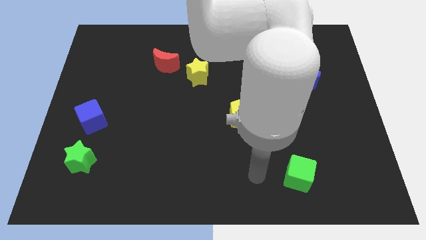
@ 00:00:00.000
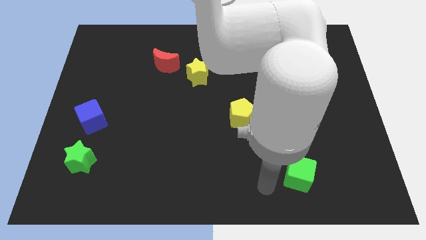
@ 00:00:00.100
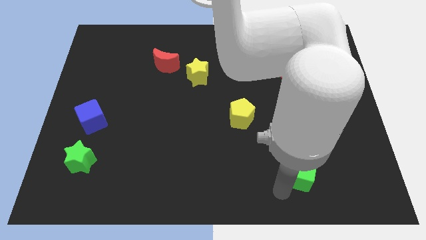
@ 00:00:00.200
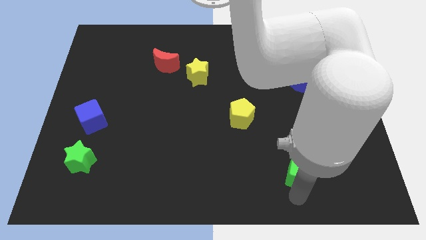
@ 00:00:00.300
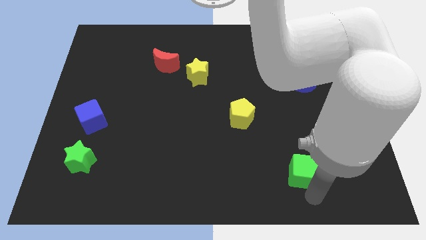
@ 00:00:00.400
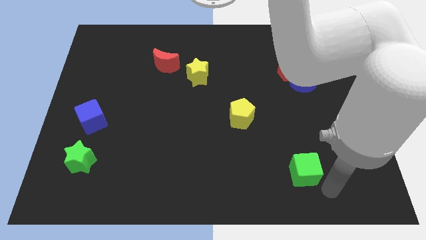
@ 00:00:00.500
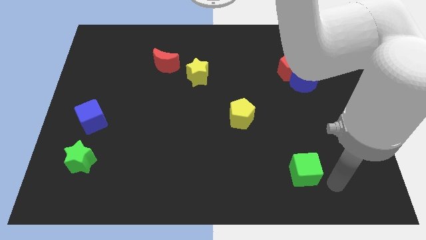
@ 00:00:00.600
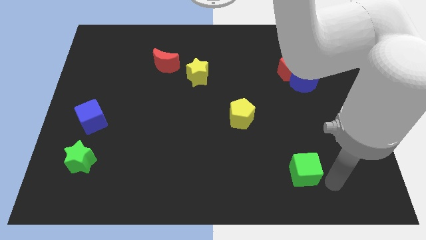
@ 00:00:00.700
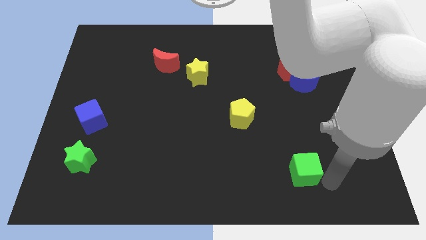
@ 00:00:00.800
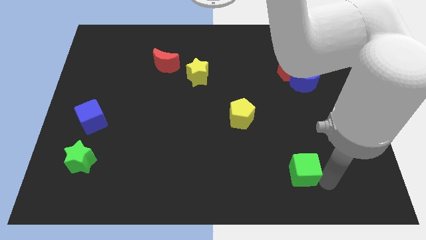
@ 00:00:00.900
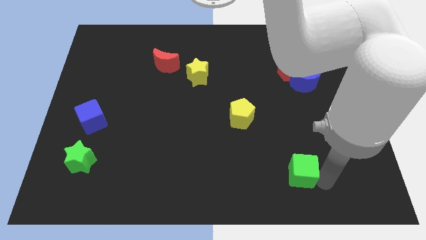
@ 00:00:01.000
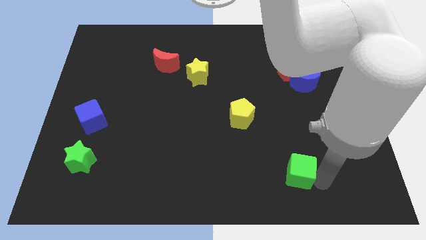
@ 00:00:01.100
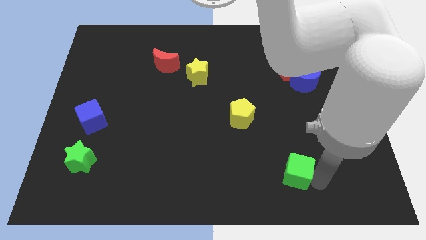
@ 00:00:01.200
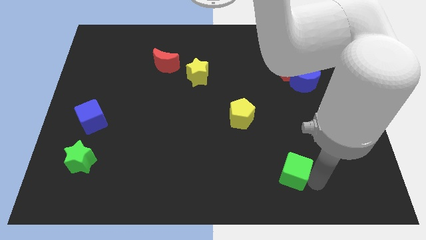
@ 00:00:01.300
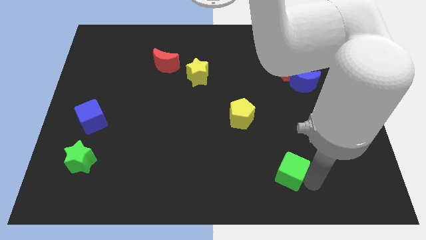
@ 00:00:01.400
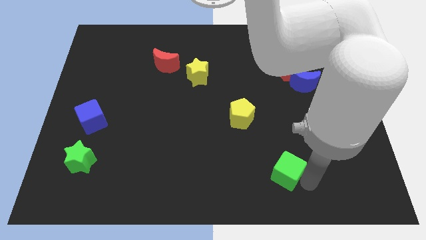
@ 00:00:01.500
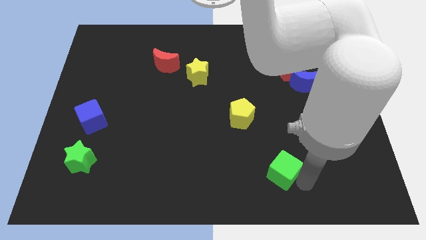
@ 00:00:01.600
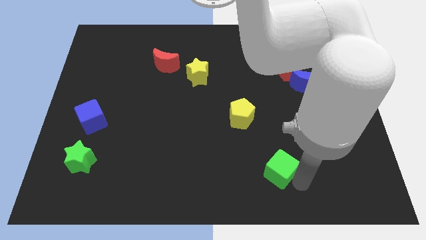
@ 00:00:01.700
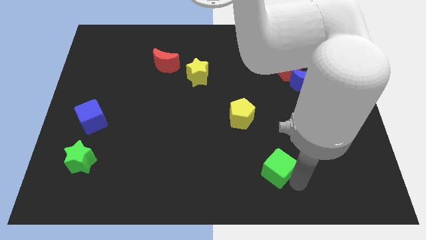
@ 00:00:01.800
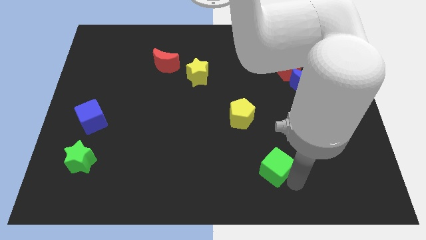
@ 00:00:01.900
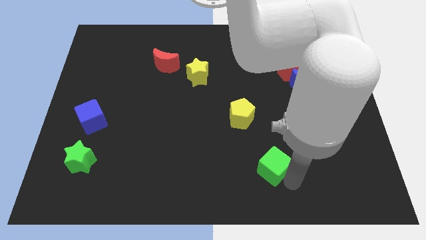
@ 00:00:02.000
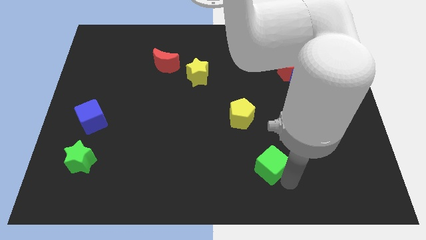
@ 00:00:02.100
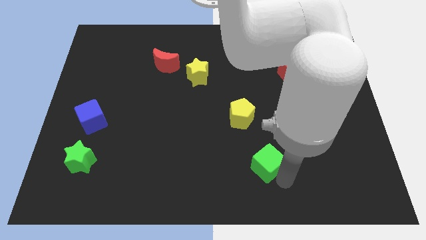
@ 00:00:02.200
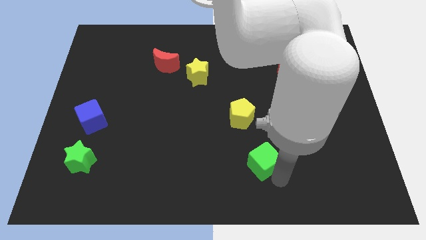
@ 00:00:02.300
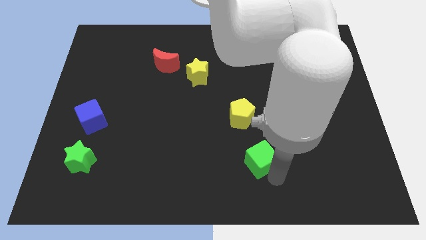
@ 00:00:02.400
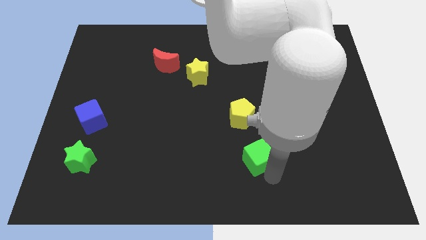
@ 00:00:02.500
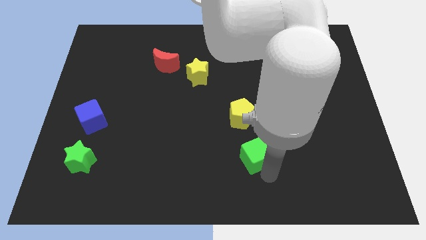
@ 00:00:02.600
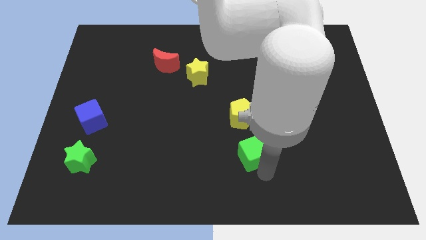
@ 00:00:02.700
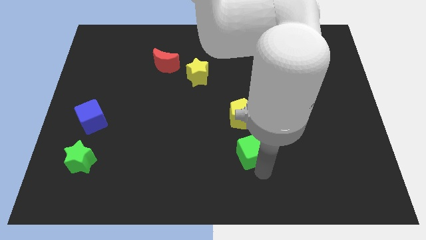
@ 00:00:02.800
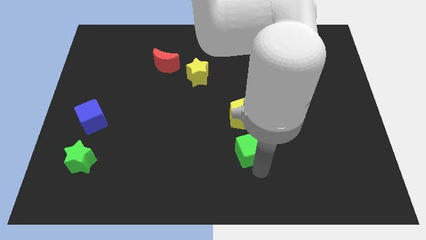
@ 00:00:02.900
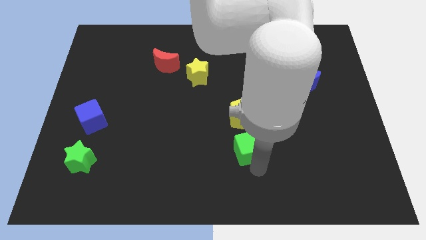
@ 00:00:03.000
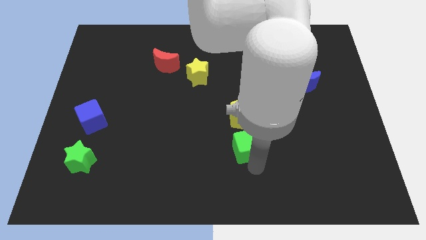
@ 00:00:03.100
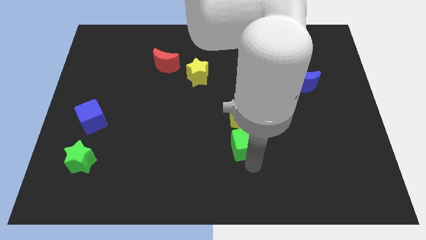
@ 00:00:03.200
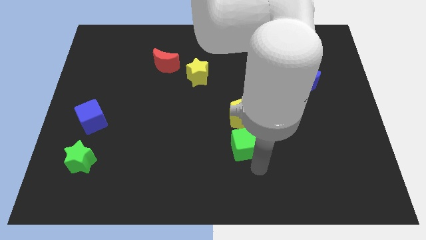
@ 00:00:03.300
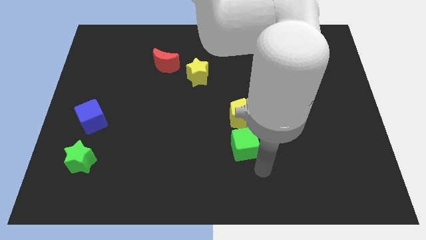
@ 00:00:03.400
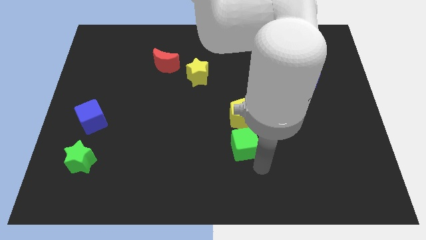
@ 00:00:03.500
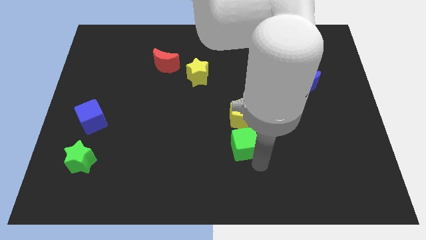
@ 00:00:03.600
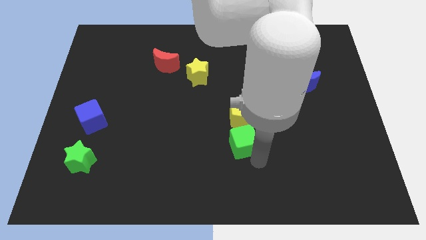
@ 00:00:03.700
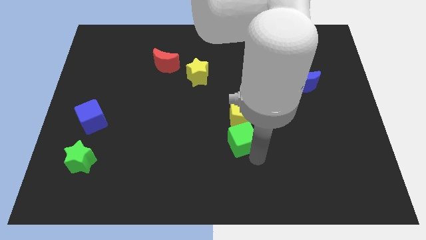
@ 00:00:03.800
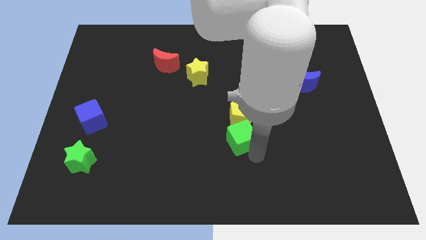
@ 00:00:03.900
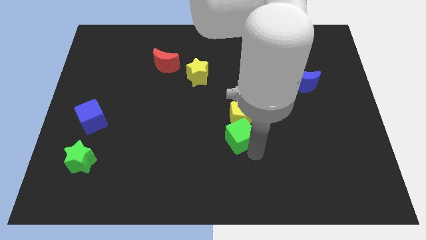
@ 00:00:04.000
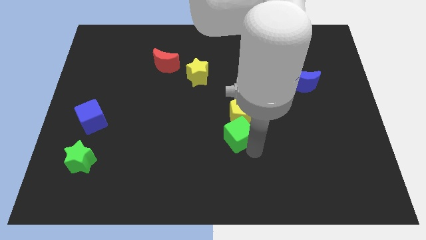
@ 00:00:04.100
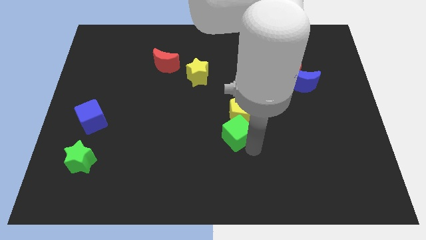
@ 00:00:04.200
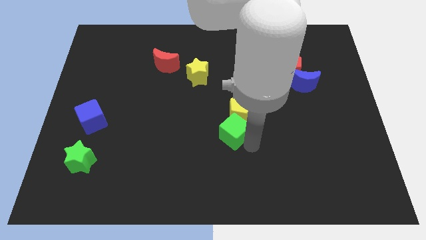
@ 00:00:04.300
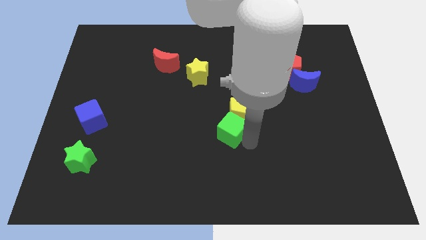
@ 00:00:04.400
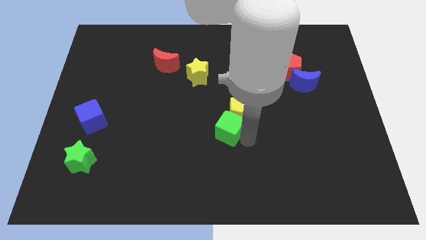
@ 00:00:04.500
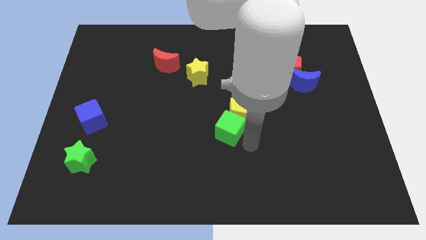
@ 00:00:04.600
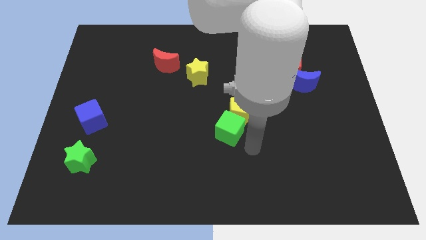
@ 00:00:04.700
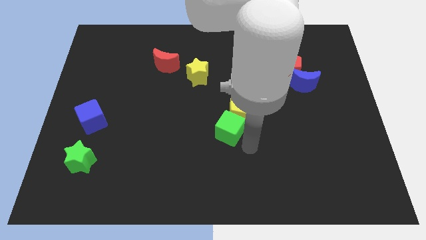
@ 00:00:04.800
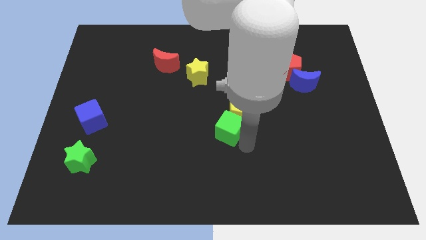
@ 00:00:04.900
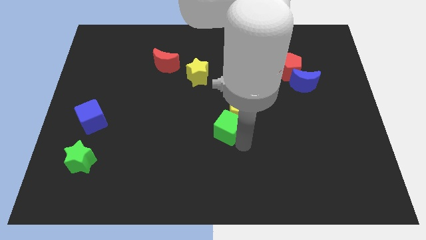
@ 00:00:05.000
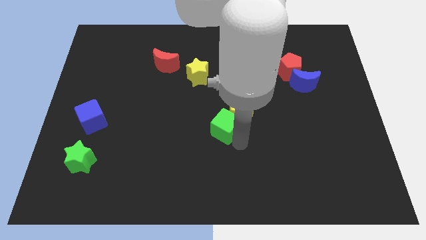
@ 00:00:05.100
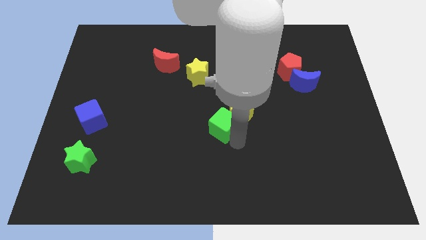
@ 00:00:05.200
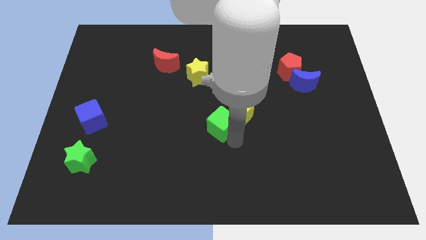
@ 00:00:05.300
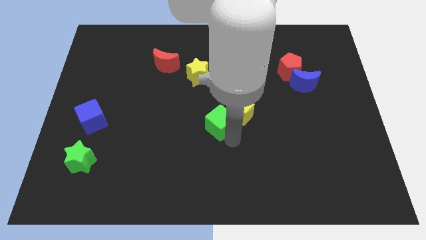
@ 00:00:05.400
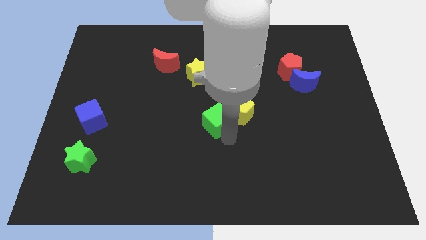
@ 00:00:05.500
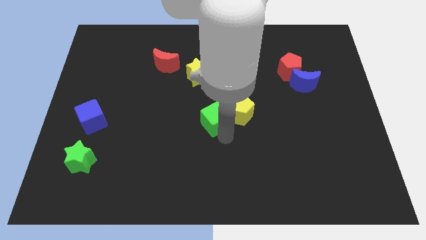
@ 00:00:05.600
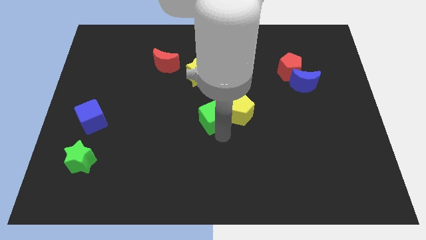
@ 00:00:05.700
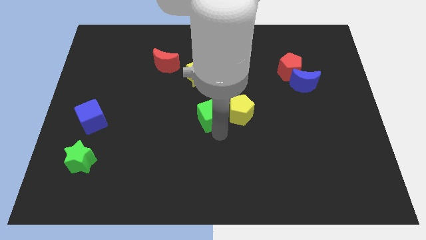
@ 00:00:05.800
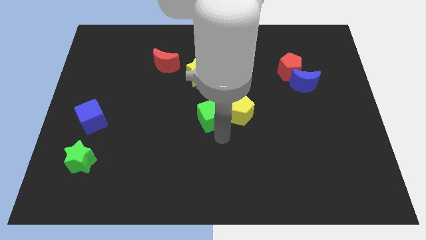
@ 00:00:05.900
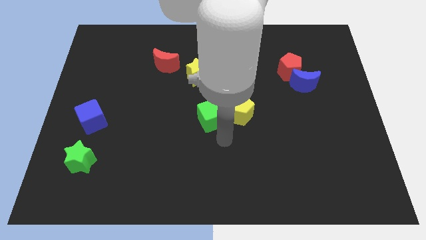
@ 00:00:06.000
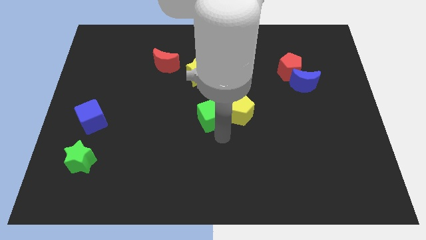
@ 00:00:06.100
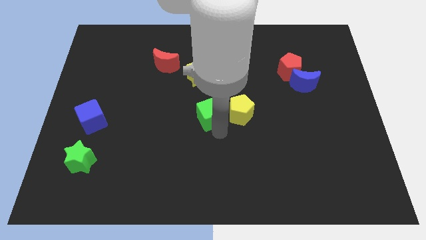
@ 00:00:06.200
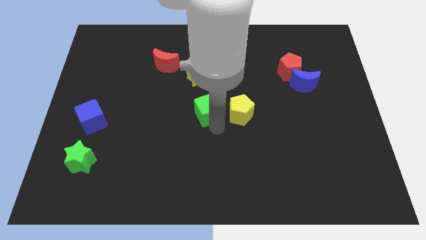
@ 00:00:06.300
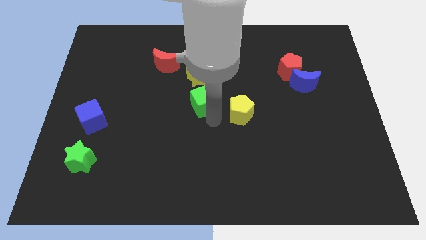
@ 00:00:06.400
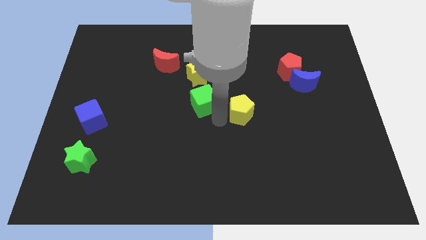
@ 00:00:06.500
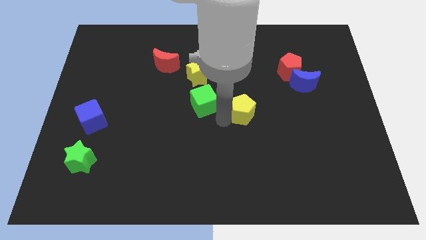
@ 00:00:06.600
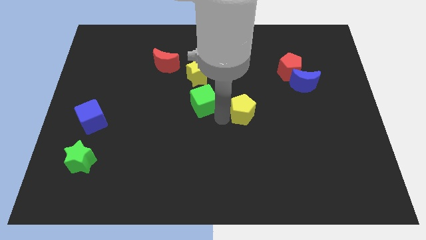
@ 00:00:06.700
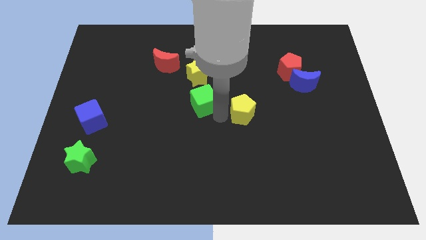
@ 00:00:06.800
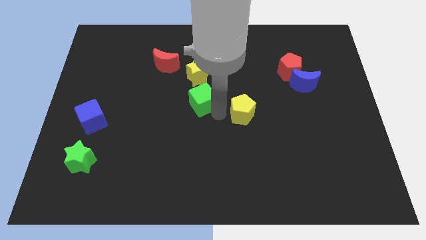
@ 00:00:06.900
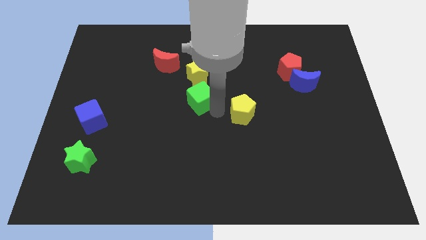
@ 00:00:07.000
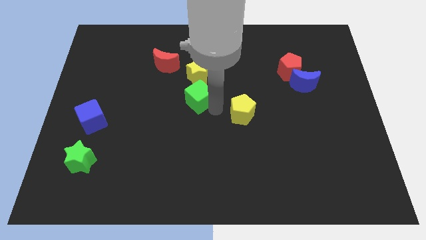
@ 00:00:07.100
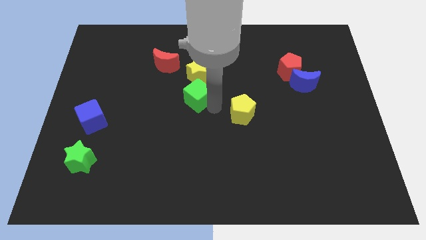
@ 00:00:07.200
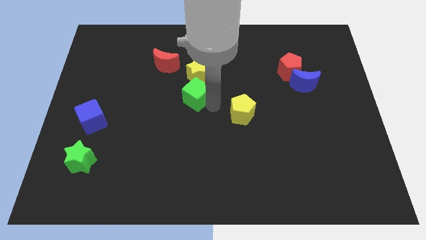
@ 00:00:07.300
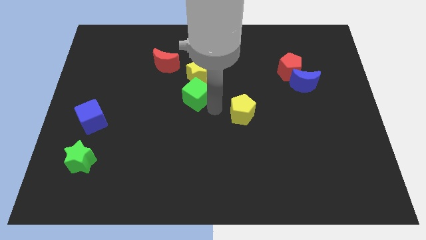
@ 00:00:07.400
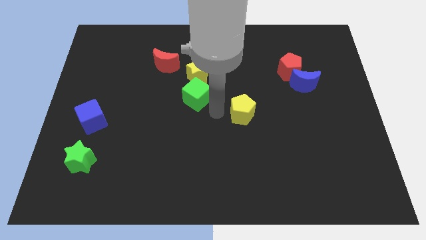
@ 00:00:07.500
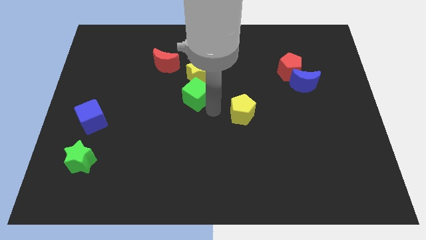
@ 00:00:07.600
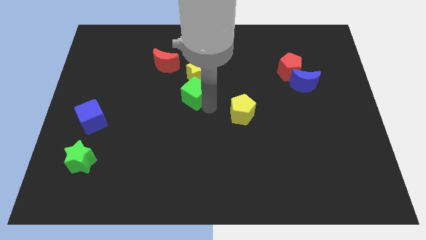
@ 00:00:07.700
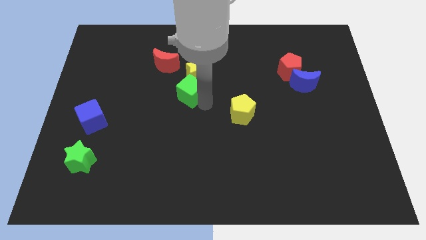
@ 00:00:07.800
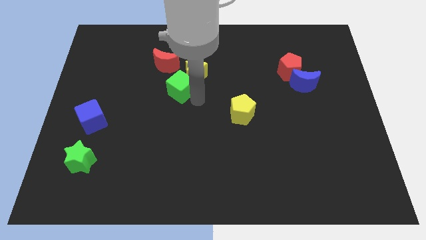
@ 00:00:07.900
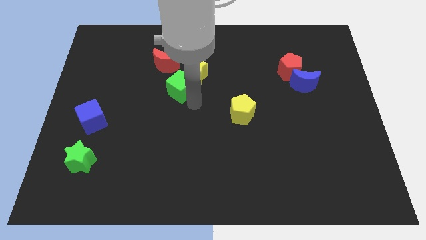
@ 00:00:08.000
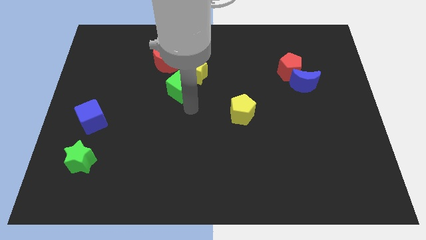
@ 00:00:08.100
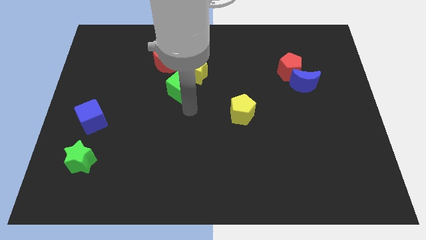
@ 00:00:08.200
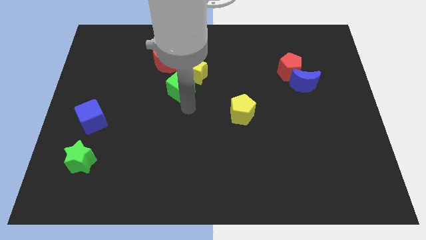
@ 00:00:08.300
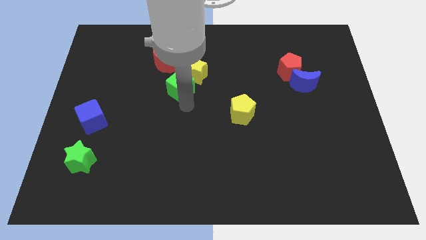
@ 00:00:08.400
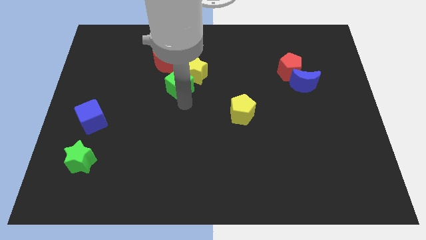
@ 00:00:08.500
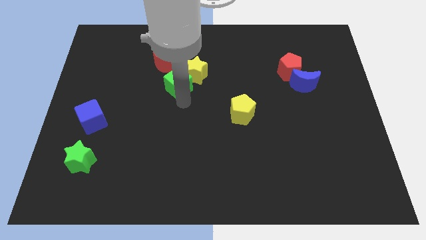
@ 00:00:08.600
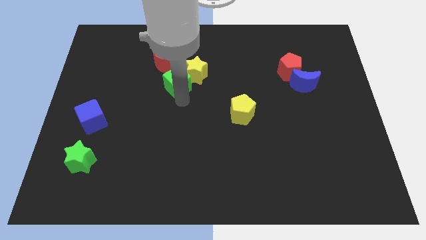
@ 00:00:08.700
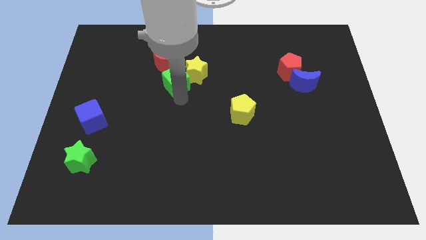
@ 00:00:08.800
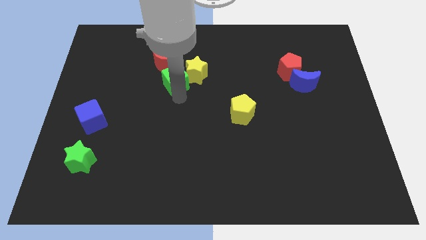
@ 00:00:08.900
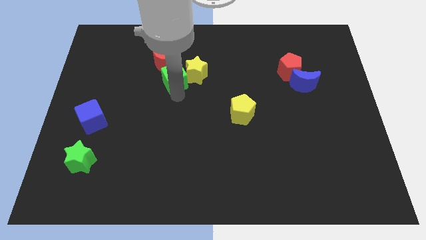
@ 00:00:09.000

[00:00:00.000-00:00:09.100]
move the green cube next to the red moon
